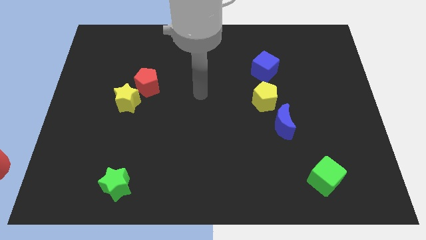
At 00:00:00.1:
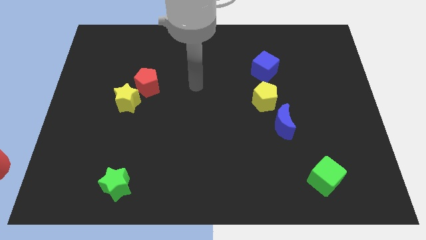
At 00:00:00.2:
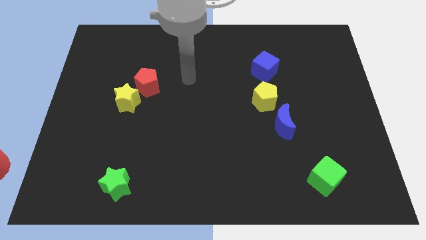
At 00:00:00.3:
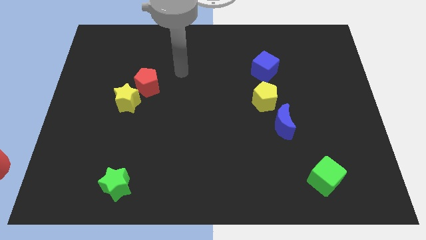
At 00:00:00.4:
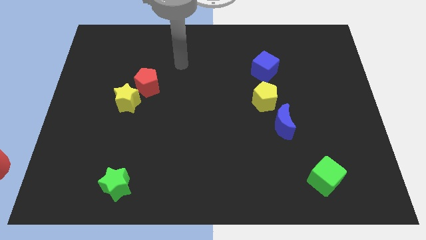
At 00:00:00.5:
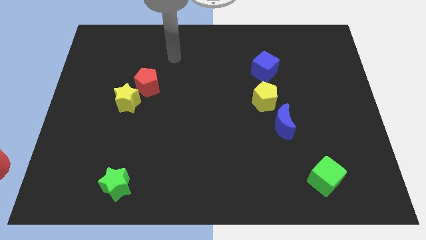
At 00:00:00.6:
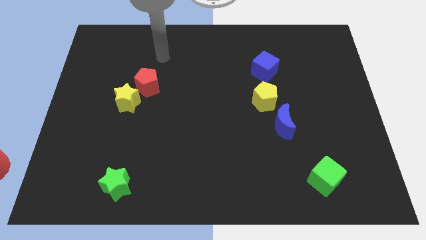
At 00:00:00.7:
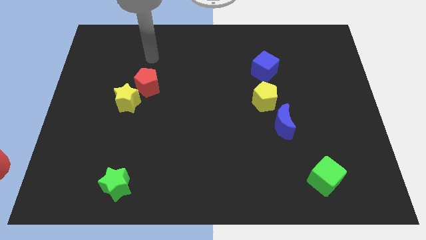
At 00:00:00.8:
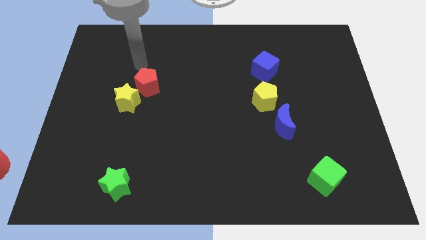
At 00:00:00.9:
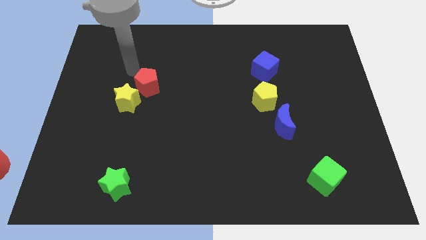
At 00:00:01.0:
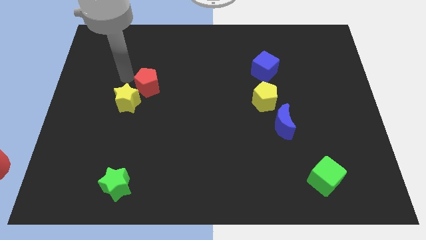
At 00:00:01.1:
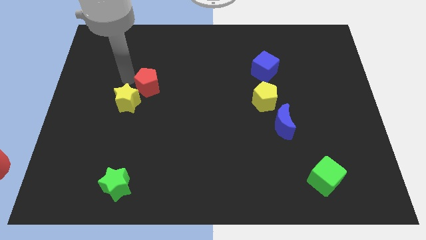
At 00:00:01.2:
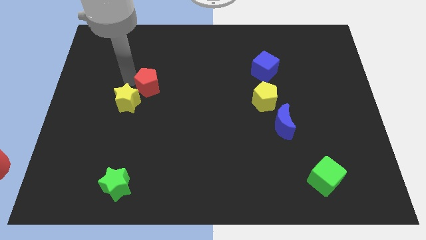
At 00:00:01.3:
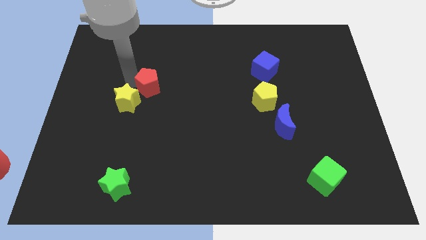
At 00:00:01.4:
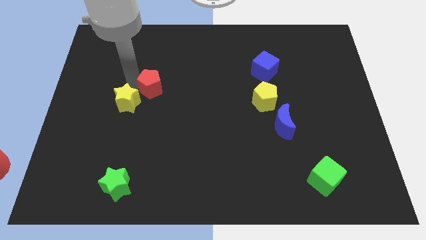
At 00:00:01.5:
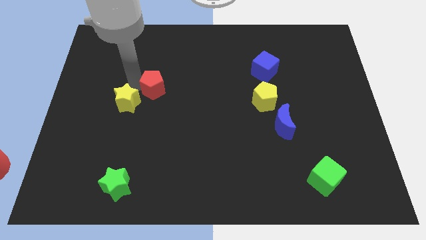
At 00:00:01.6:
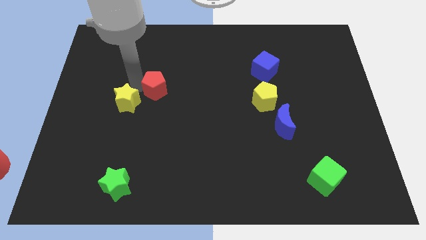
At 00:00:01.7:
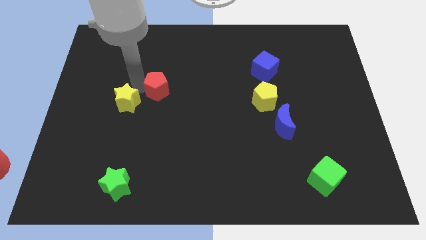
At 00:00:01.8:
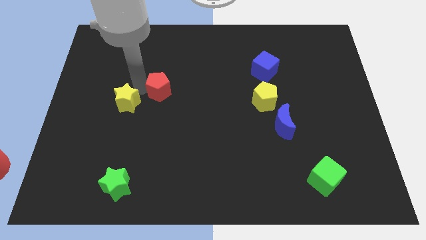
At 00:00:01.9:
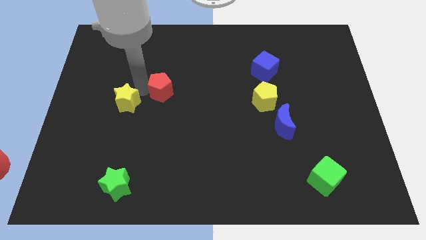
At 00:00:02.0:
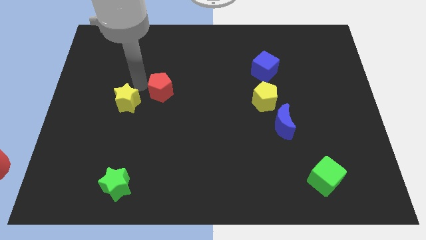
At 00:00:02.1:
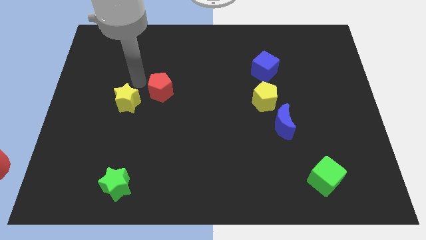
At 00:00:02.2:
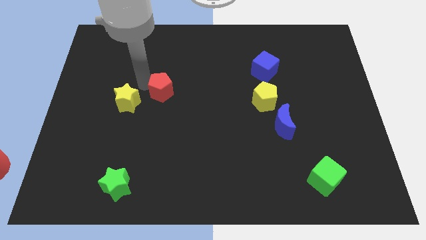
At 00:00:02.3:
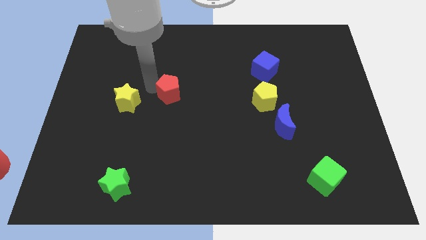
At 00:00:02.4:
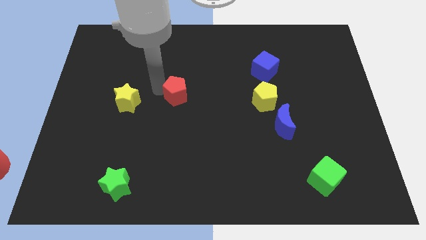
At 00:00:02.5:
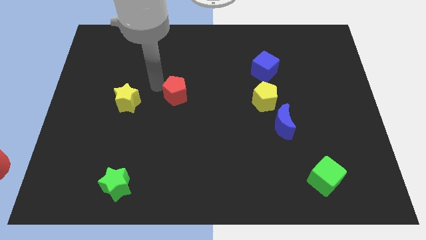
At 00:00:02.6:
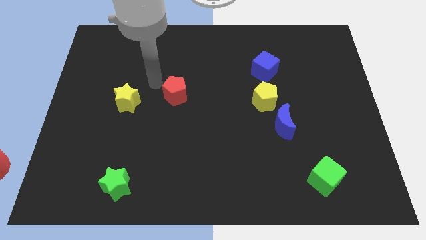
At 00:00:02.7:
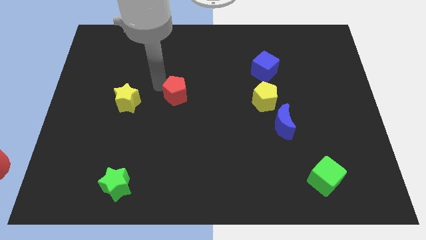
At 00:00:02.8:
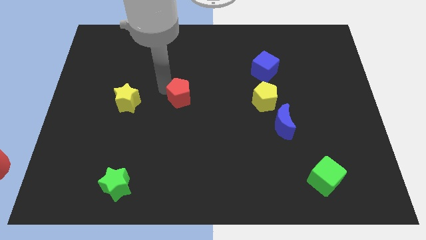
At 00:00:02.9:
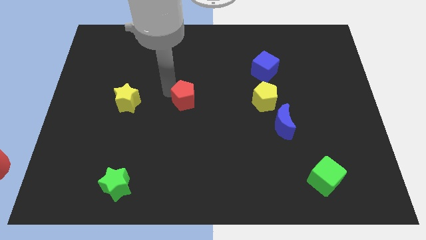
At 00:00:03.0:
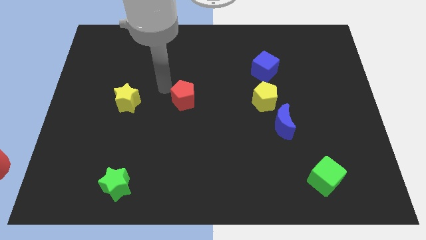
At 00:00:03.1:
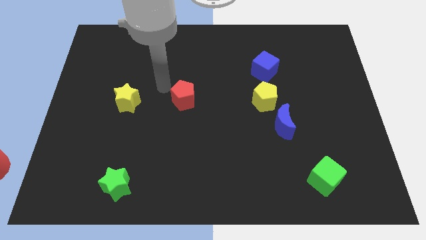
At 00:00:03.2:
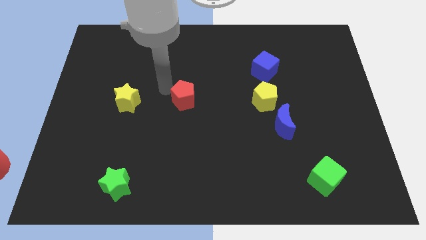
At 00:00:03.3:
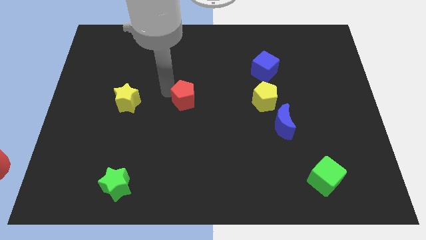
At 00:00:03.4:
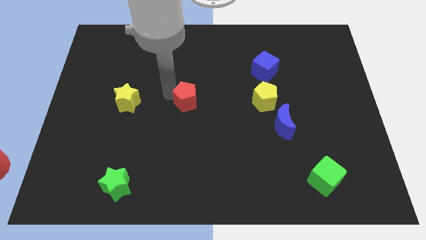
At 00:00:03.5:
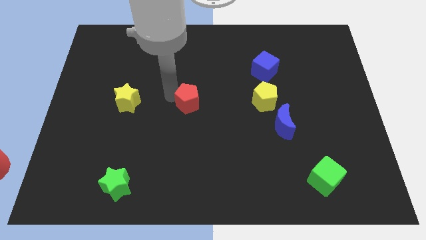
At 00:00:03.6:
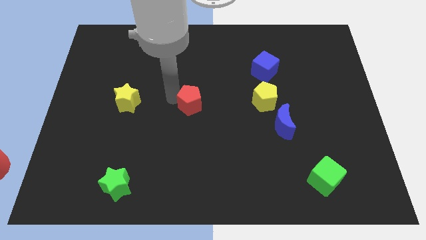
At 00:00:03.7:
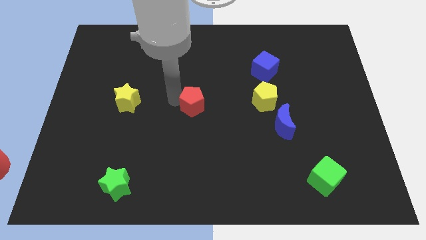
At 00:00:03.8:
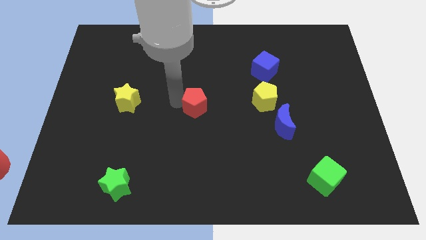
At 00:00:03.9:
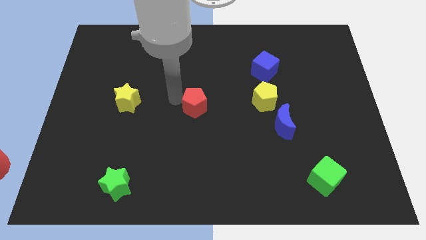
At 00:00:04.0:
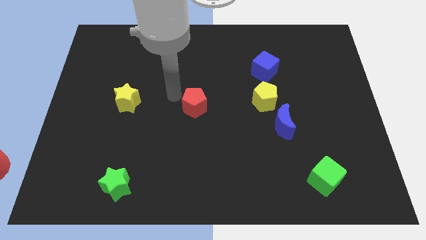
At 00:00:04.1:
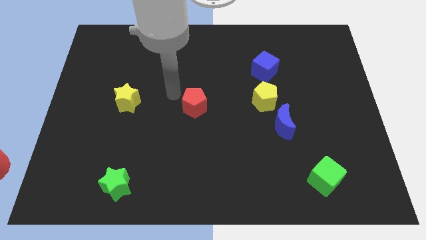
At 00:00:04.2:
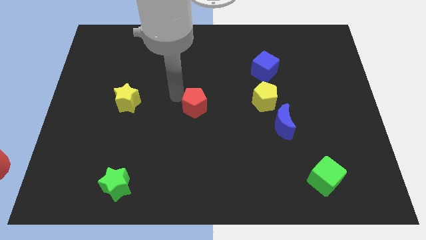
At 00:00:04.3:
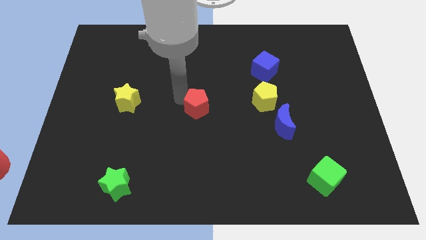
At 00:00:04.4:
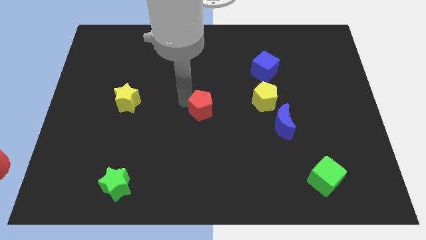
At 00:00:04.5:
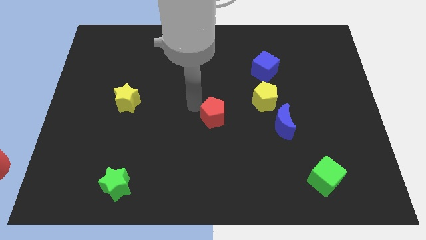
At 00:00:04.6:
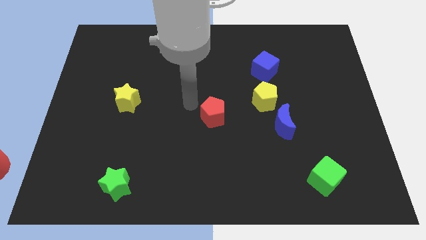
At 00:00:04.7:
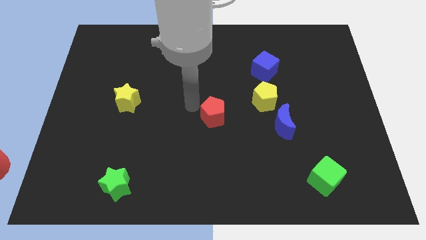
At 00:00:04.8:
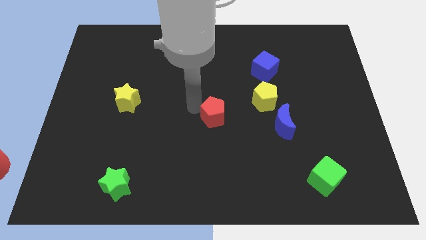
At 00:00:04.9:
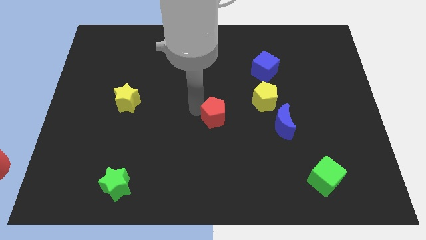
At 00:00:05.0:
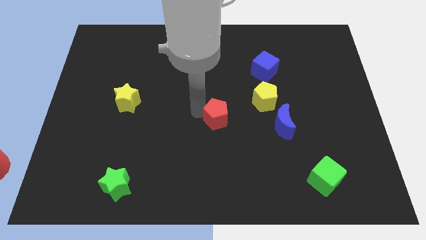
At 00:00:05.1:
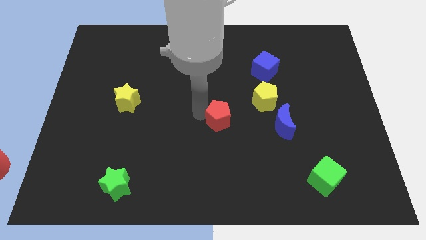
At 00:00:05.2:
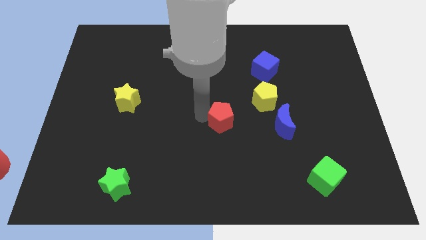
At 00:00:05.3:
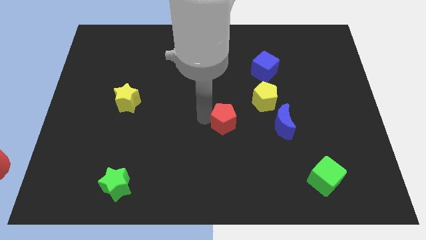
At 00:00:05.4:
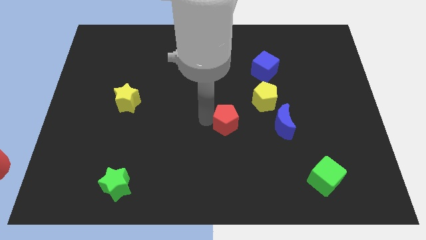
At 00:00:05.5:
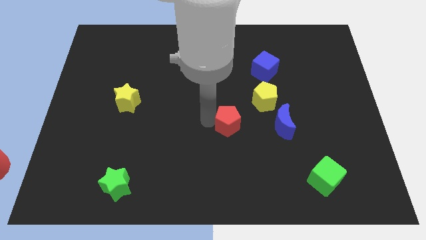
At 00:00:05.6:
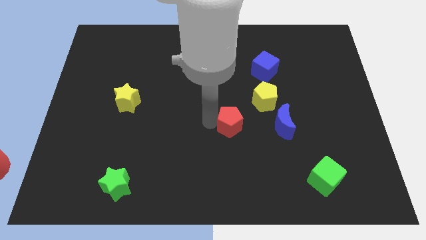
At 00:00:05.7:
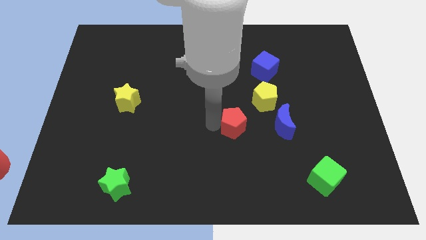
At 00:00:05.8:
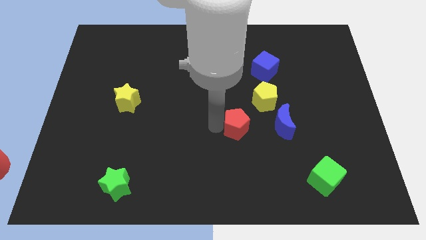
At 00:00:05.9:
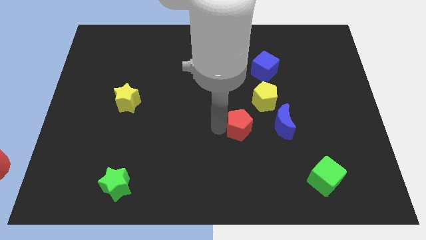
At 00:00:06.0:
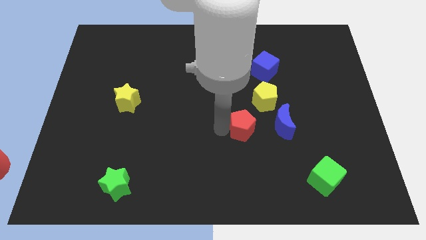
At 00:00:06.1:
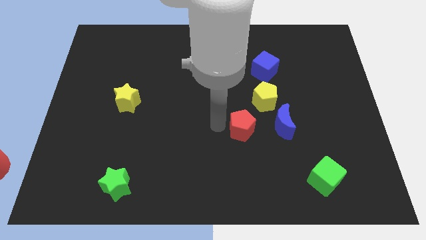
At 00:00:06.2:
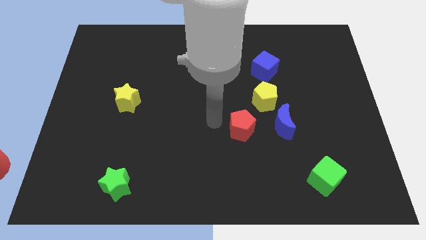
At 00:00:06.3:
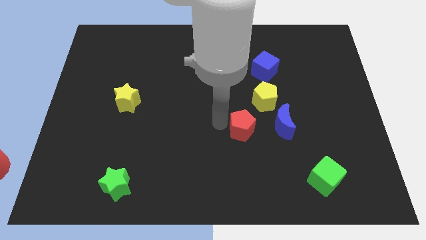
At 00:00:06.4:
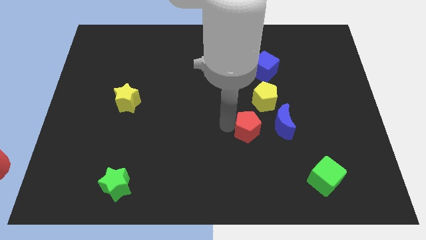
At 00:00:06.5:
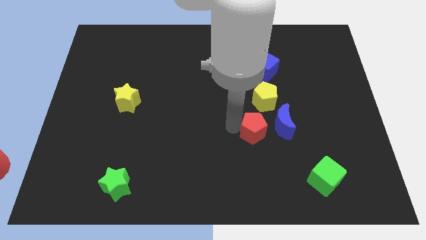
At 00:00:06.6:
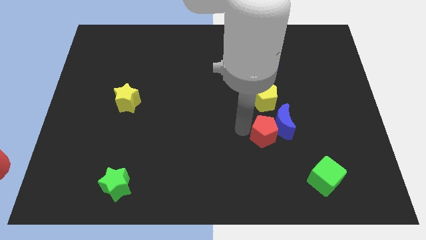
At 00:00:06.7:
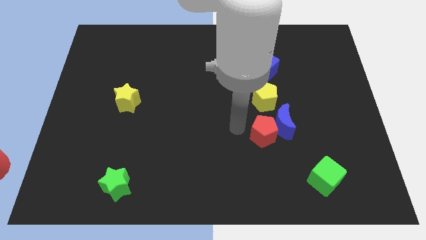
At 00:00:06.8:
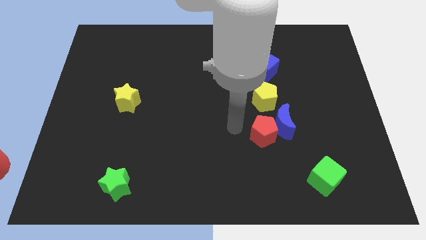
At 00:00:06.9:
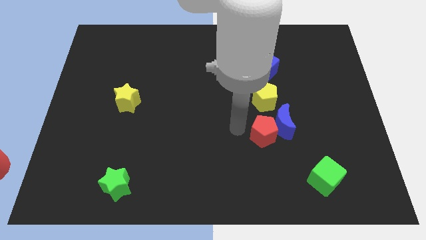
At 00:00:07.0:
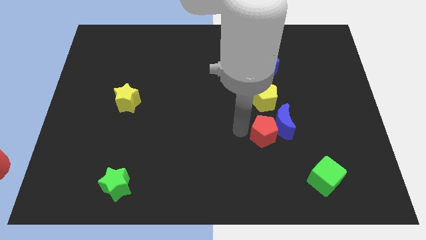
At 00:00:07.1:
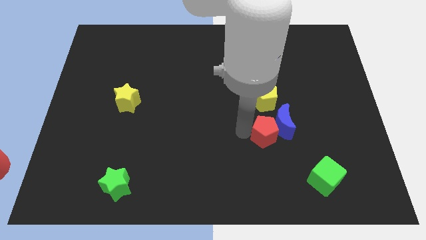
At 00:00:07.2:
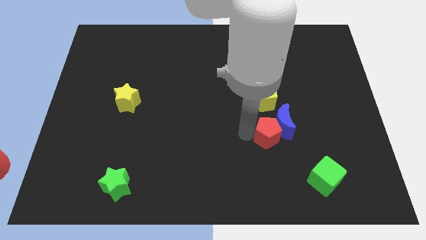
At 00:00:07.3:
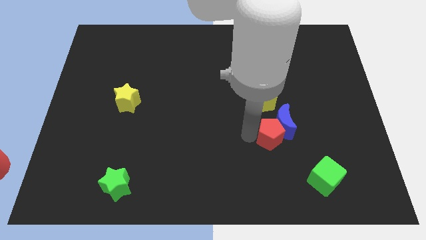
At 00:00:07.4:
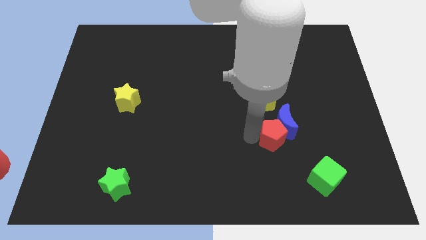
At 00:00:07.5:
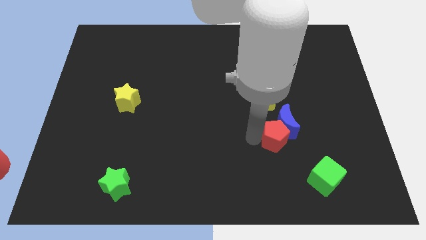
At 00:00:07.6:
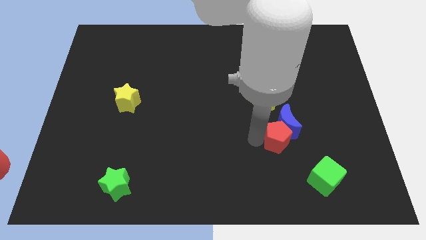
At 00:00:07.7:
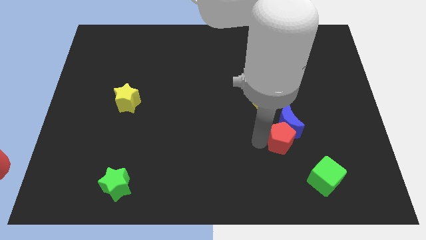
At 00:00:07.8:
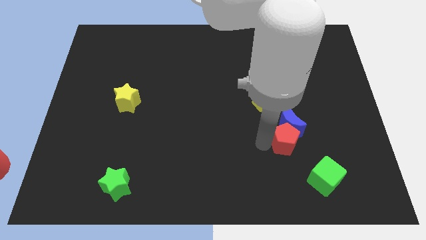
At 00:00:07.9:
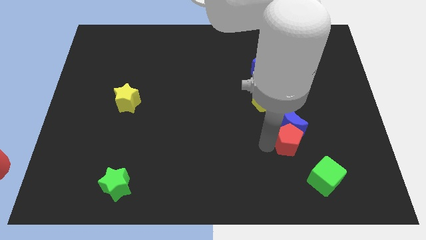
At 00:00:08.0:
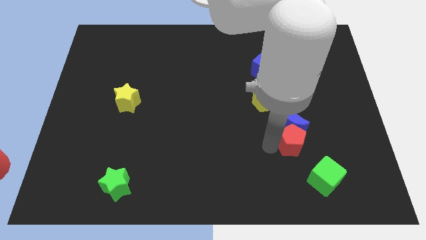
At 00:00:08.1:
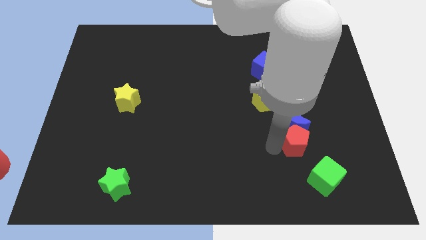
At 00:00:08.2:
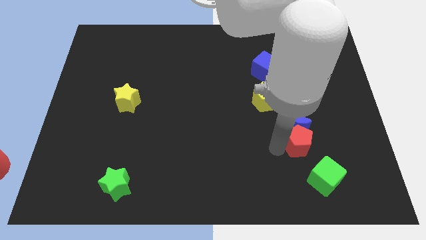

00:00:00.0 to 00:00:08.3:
push the red pentagon to the top side of the green cube
